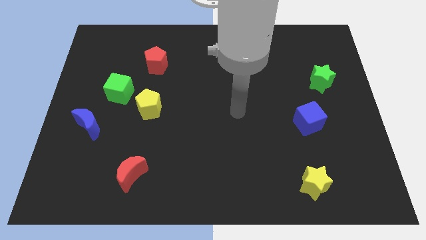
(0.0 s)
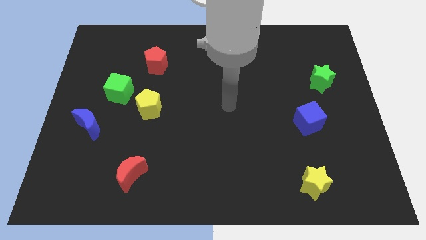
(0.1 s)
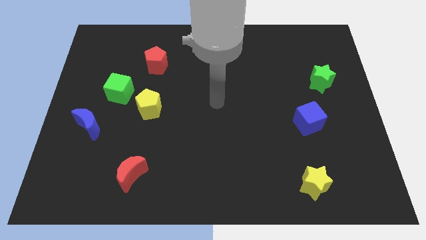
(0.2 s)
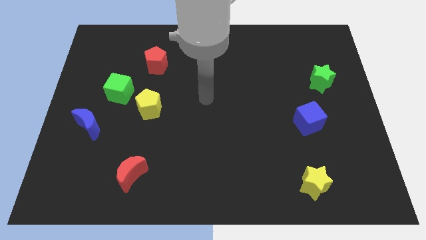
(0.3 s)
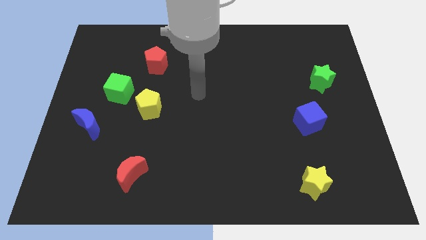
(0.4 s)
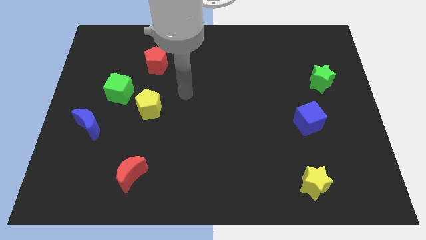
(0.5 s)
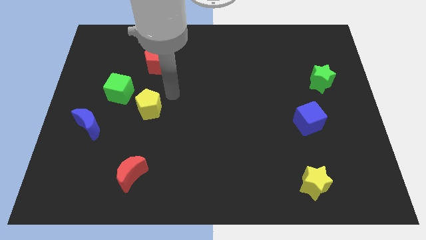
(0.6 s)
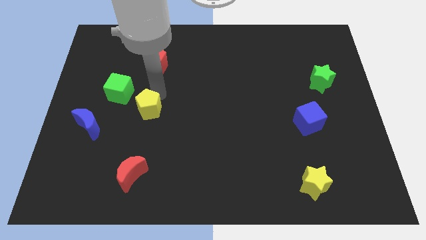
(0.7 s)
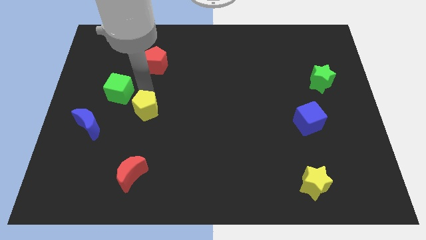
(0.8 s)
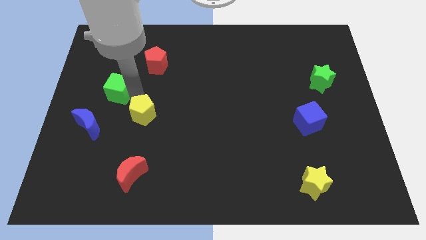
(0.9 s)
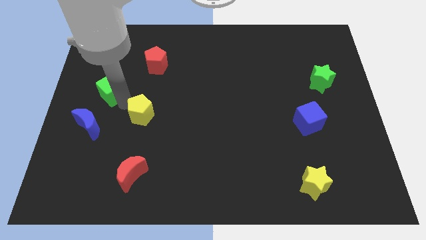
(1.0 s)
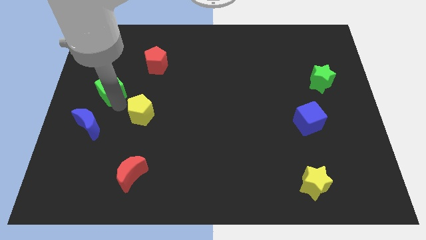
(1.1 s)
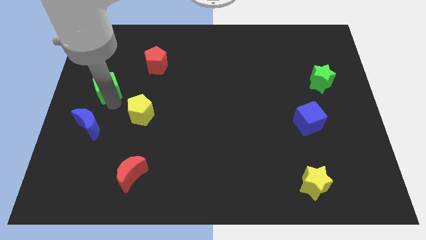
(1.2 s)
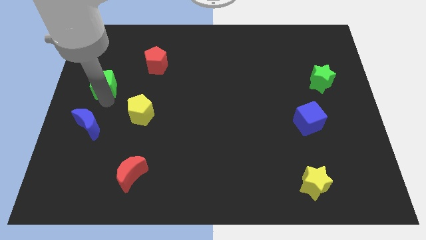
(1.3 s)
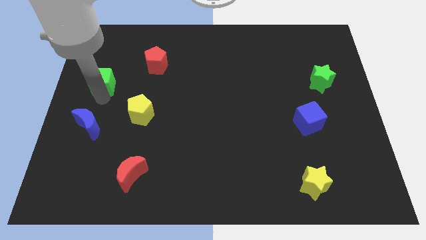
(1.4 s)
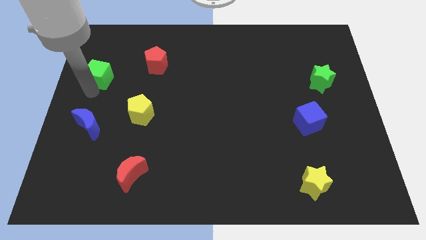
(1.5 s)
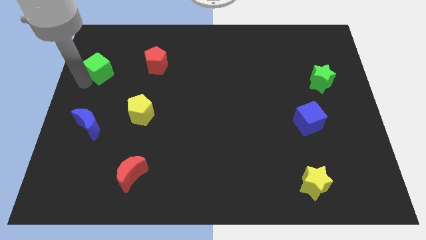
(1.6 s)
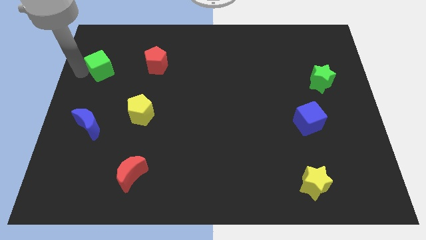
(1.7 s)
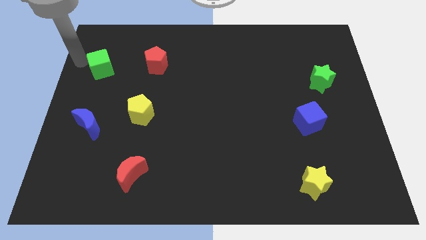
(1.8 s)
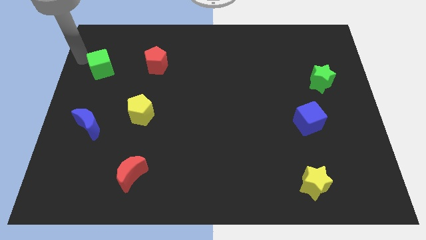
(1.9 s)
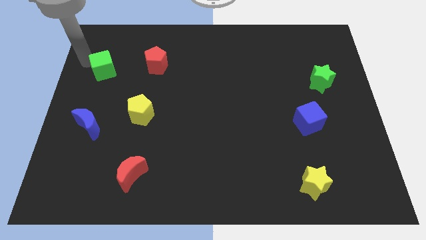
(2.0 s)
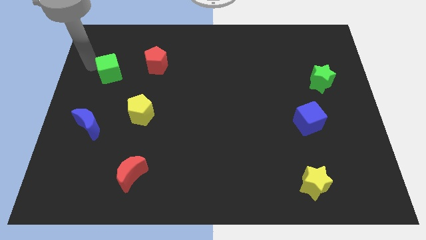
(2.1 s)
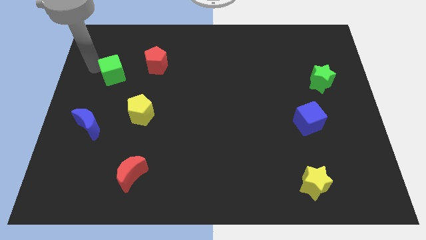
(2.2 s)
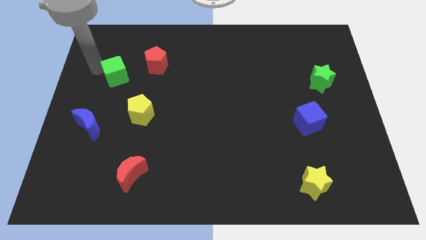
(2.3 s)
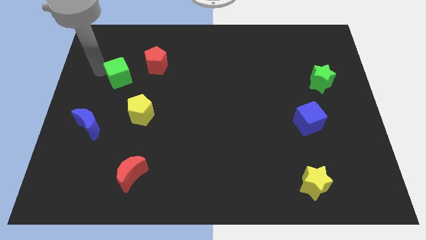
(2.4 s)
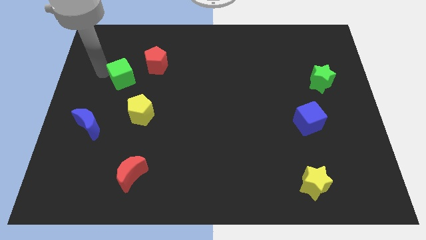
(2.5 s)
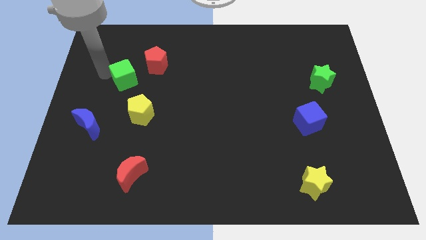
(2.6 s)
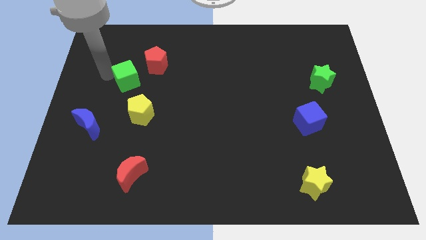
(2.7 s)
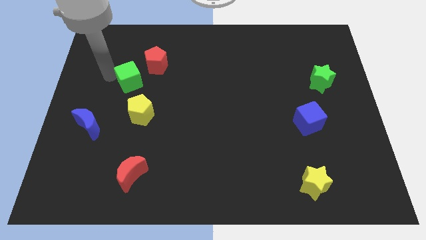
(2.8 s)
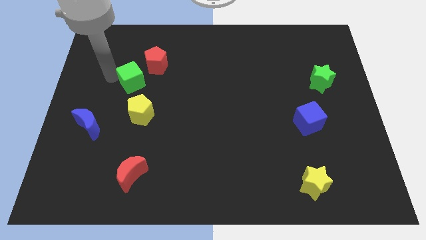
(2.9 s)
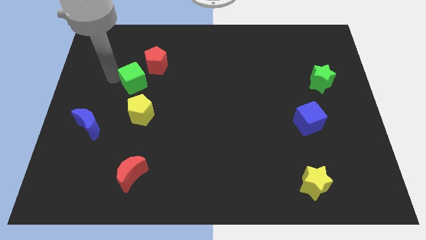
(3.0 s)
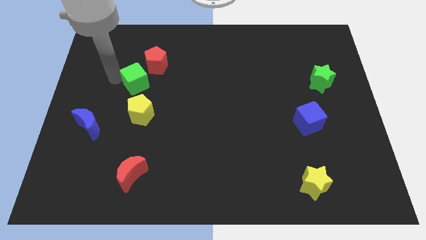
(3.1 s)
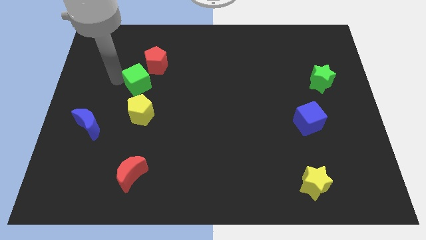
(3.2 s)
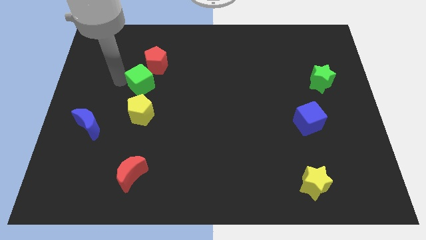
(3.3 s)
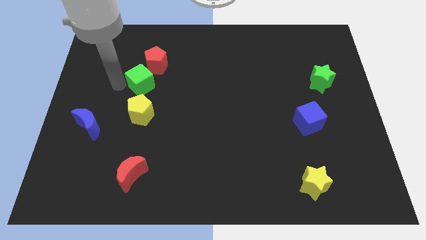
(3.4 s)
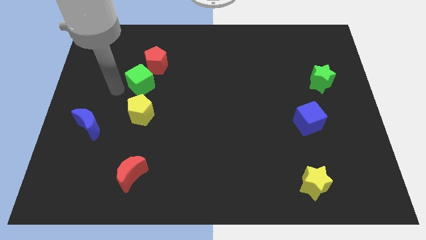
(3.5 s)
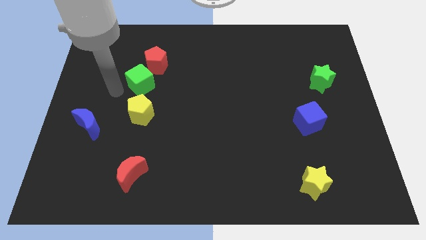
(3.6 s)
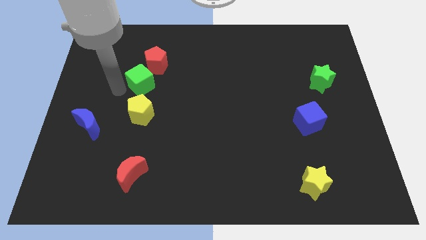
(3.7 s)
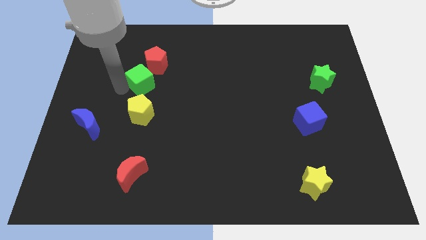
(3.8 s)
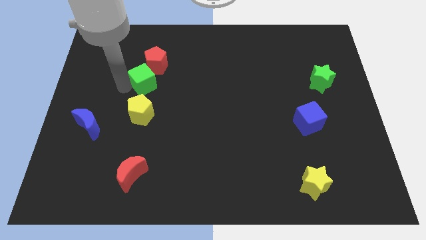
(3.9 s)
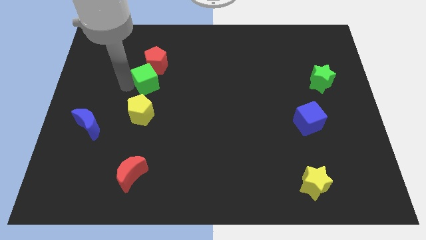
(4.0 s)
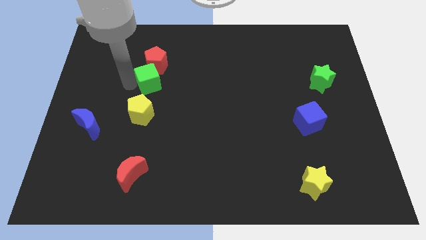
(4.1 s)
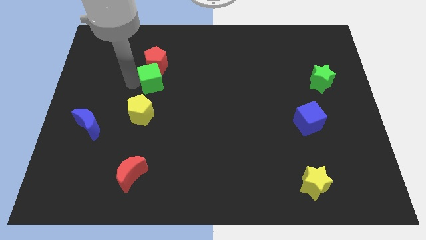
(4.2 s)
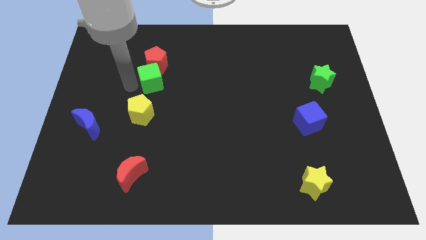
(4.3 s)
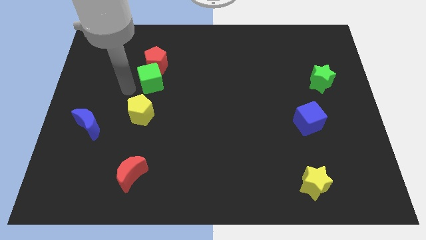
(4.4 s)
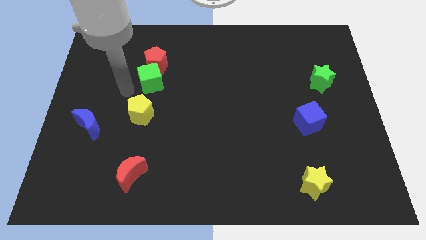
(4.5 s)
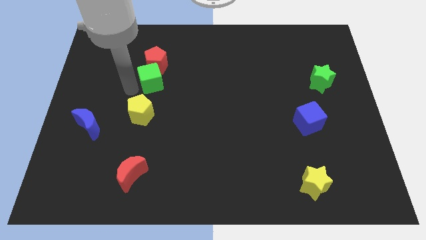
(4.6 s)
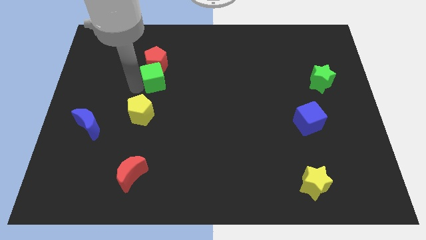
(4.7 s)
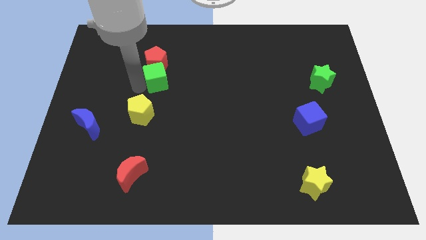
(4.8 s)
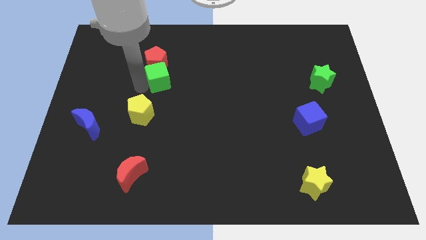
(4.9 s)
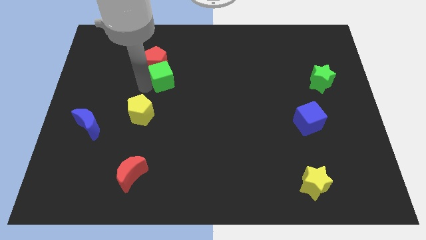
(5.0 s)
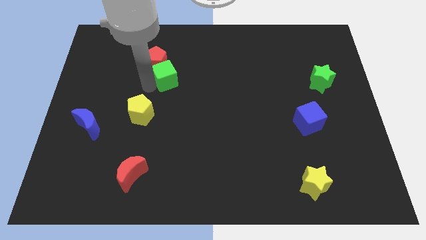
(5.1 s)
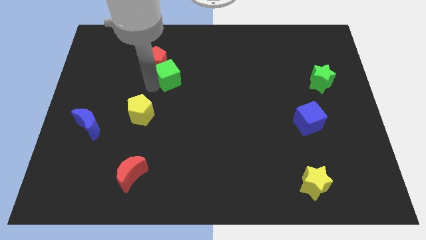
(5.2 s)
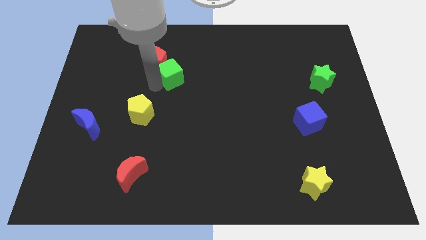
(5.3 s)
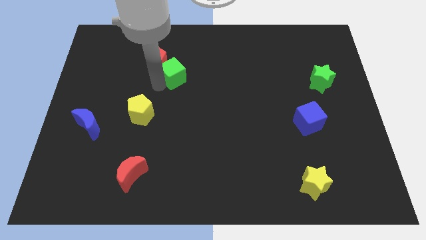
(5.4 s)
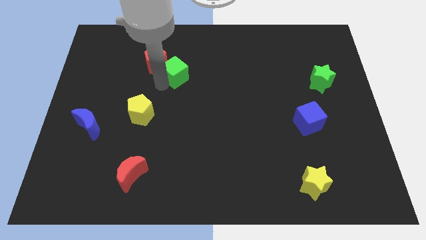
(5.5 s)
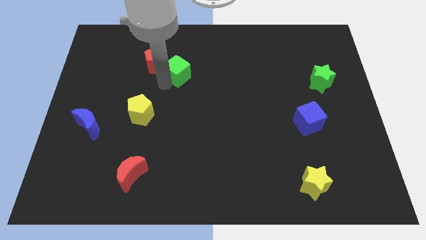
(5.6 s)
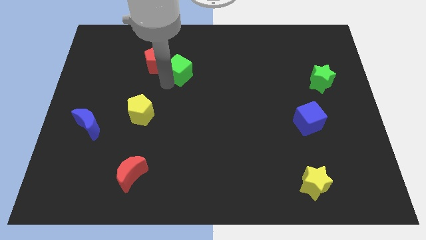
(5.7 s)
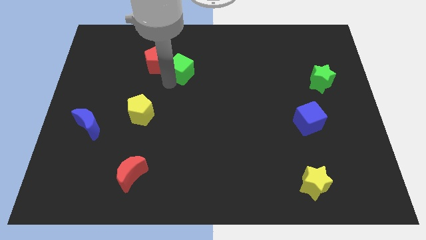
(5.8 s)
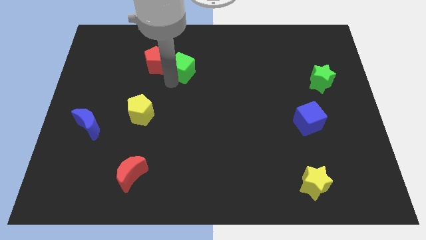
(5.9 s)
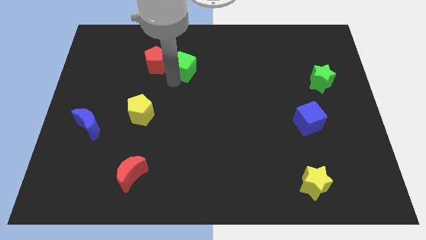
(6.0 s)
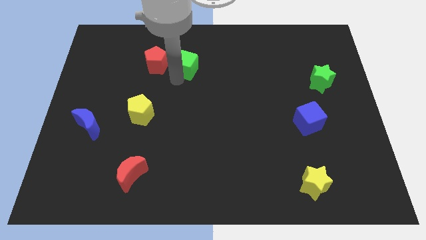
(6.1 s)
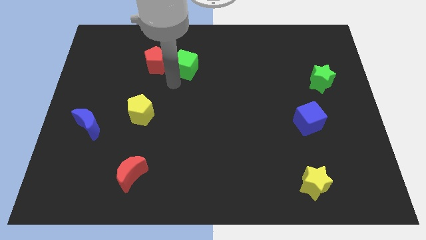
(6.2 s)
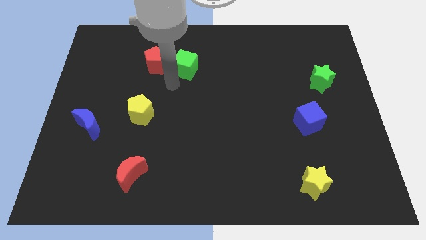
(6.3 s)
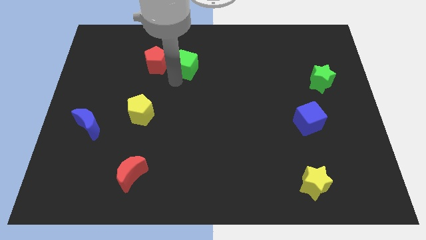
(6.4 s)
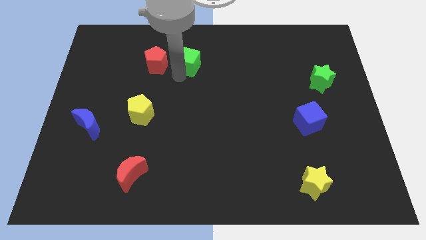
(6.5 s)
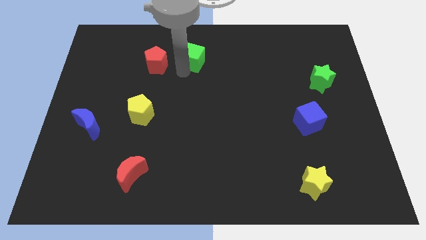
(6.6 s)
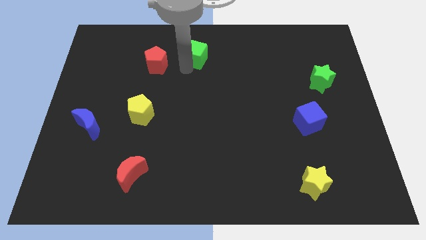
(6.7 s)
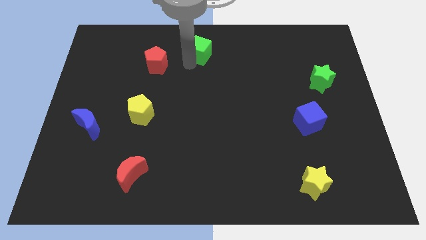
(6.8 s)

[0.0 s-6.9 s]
slide the green cube to the top side
